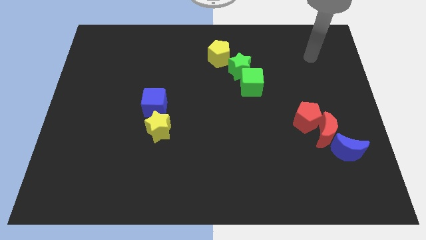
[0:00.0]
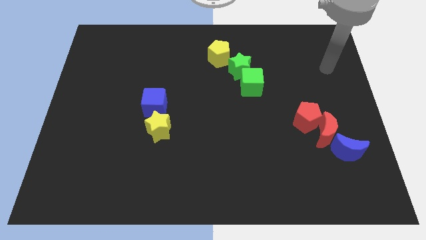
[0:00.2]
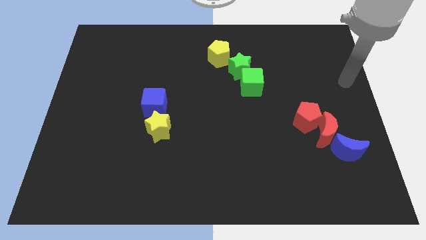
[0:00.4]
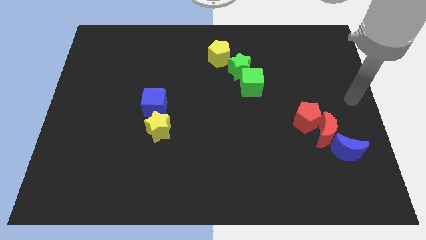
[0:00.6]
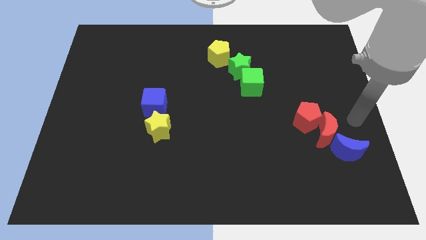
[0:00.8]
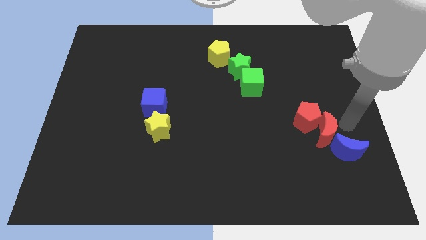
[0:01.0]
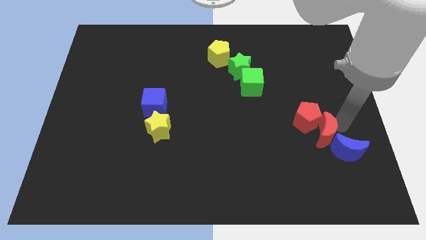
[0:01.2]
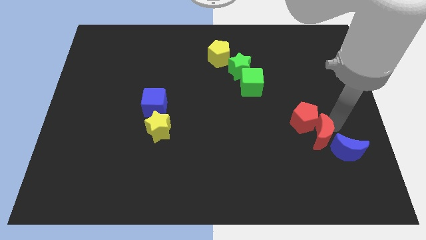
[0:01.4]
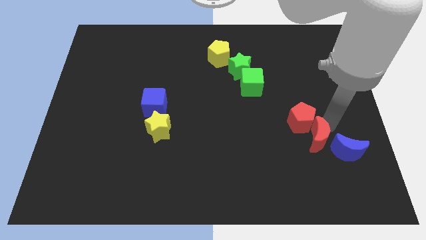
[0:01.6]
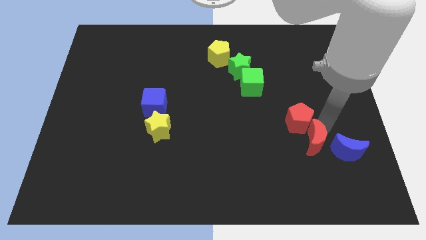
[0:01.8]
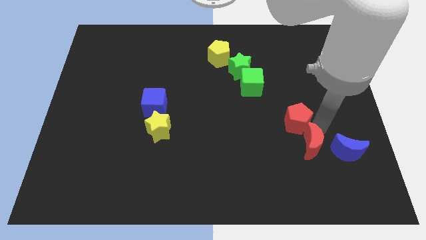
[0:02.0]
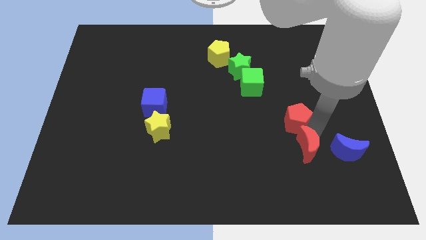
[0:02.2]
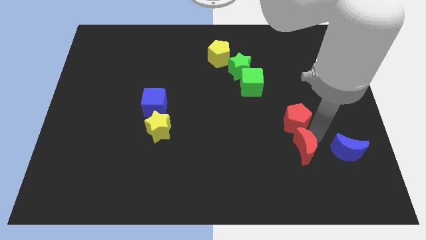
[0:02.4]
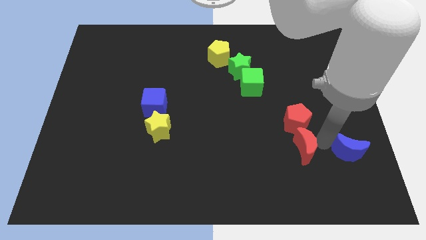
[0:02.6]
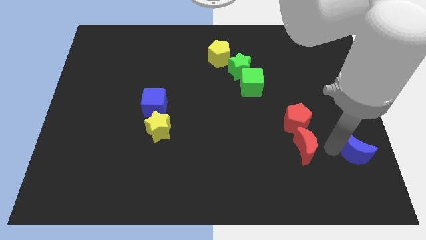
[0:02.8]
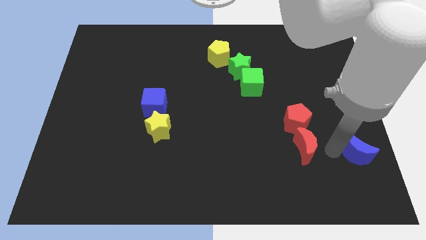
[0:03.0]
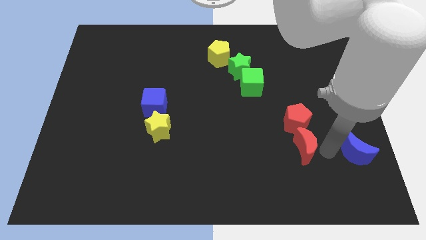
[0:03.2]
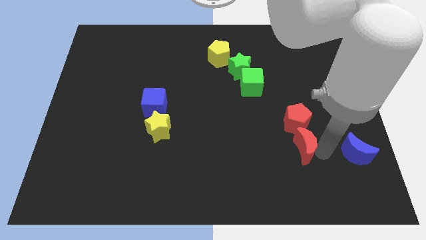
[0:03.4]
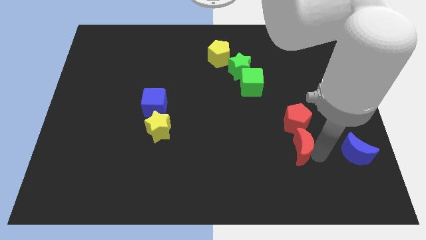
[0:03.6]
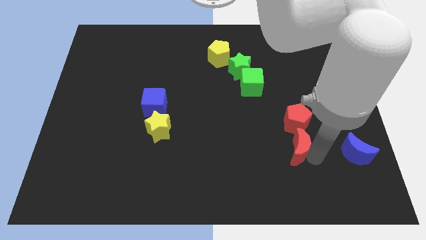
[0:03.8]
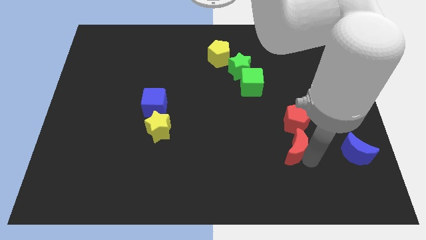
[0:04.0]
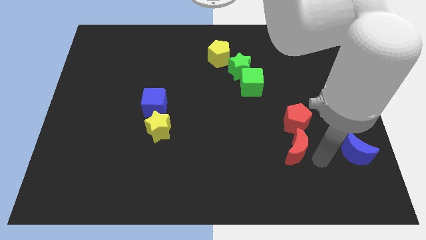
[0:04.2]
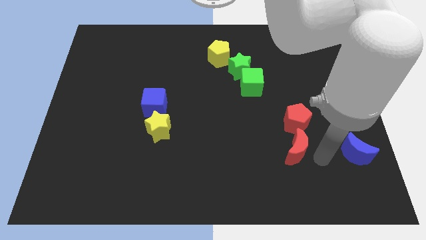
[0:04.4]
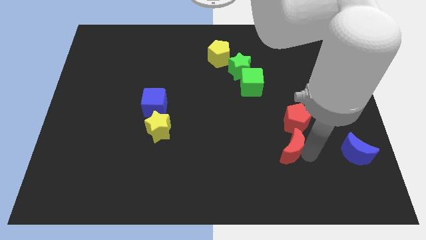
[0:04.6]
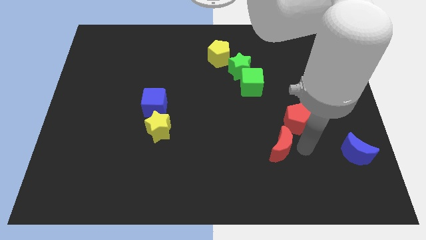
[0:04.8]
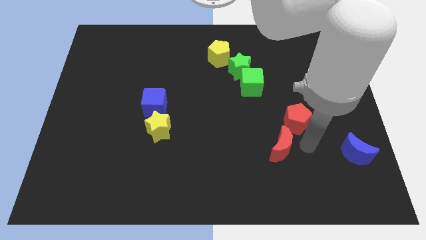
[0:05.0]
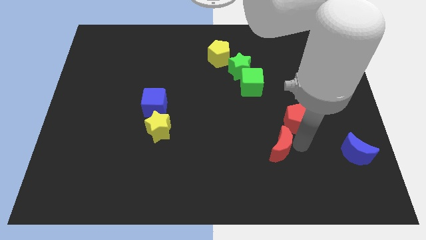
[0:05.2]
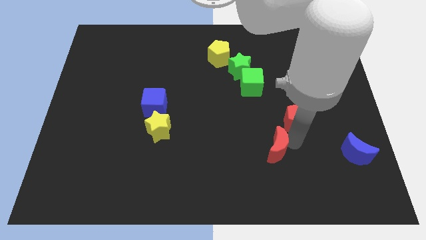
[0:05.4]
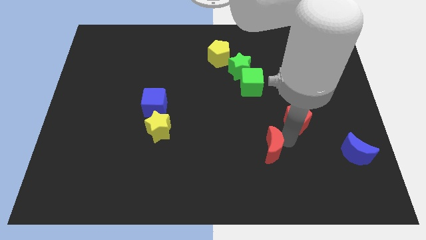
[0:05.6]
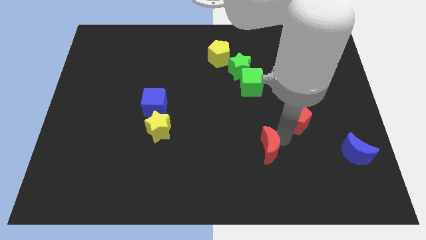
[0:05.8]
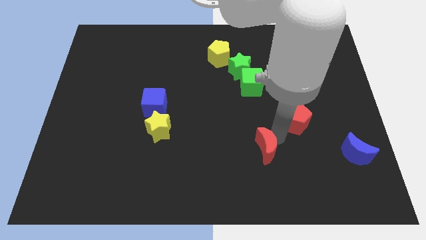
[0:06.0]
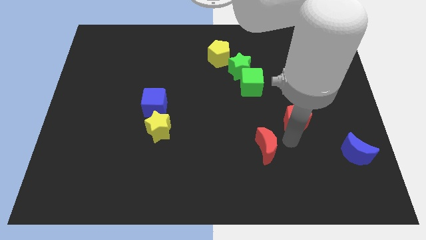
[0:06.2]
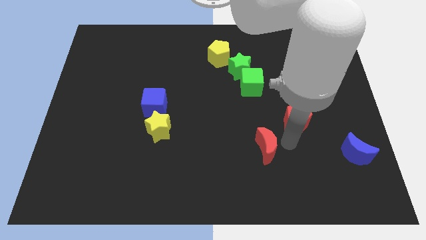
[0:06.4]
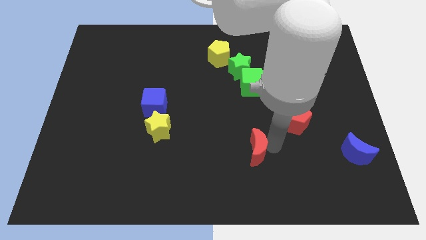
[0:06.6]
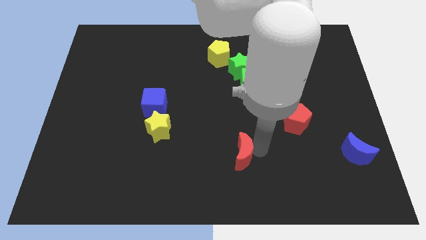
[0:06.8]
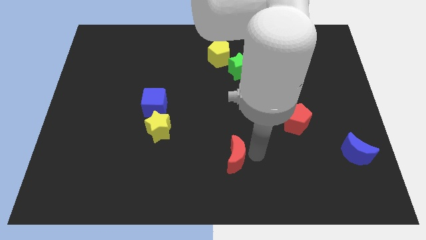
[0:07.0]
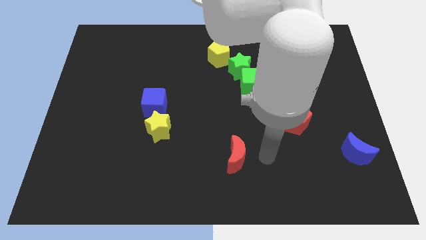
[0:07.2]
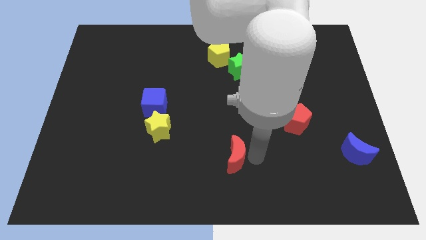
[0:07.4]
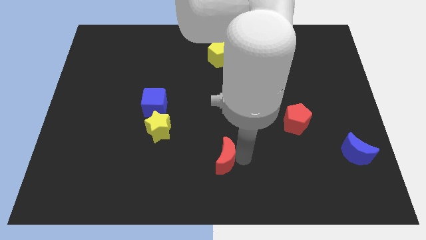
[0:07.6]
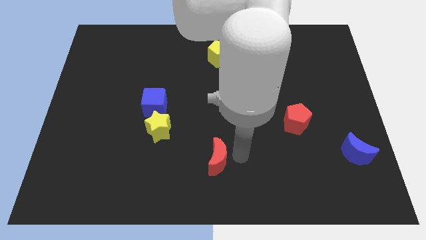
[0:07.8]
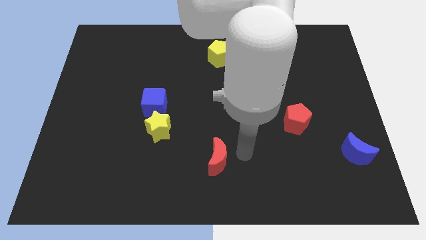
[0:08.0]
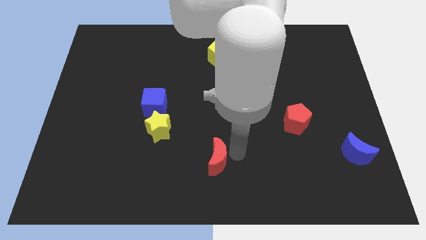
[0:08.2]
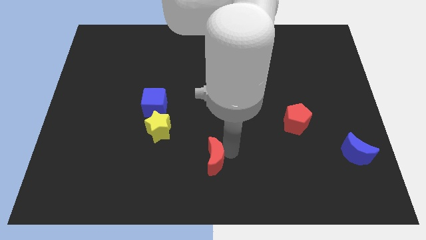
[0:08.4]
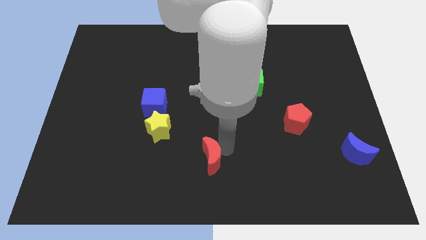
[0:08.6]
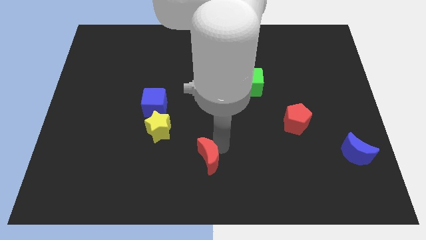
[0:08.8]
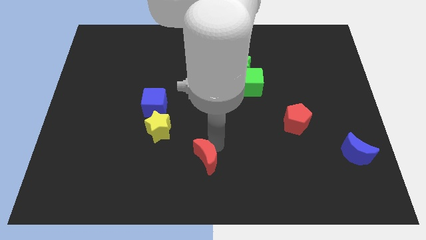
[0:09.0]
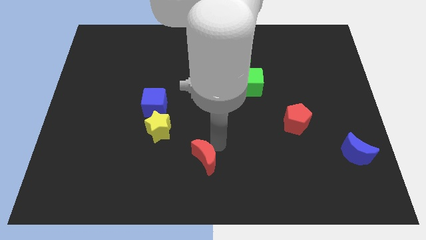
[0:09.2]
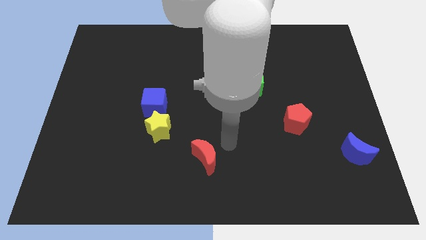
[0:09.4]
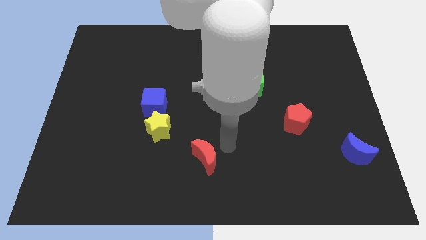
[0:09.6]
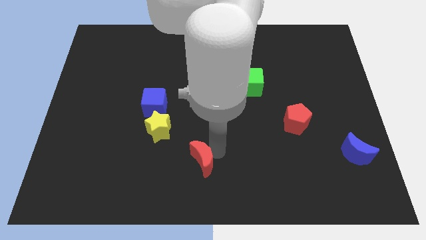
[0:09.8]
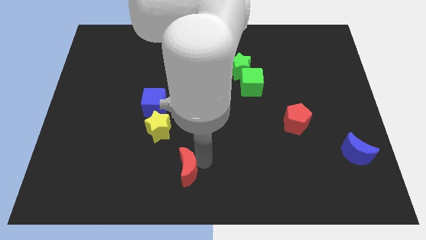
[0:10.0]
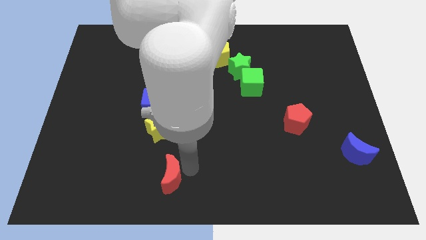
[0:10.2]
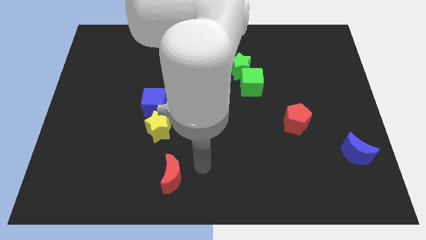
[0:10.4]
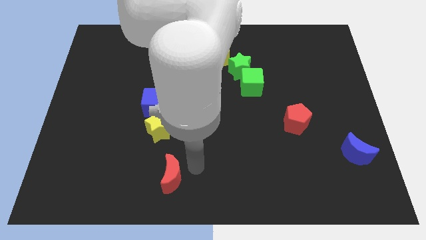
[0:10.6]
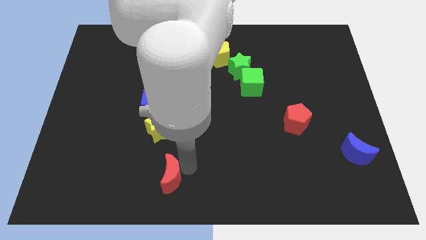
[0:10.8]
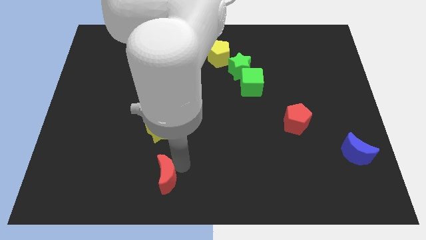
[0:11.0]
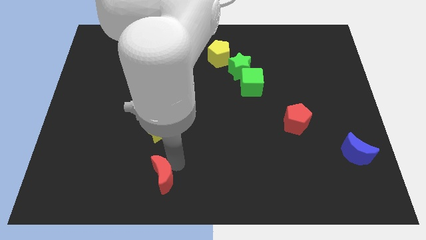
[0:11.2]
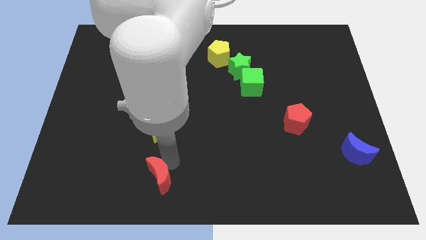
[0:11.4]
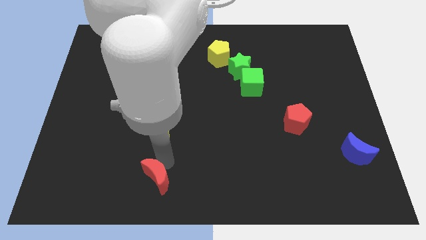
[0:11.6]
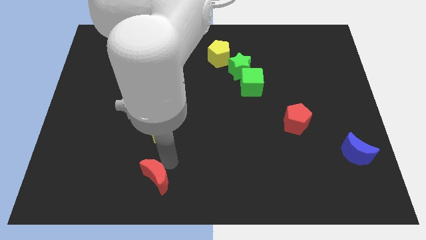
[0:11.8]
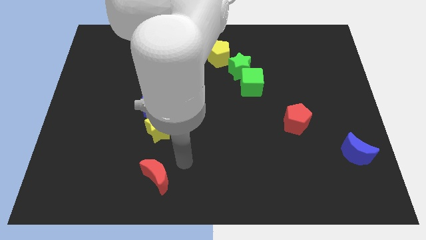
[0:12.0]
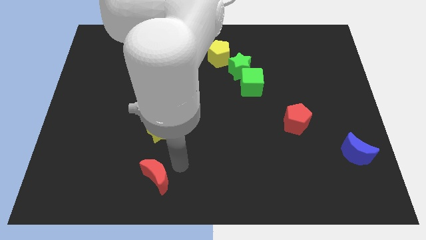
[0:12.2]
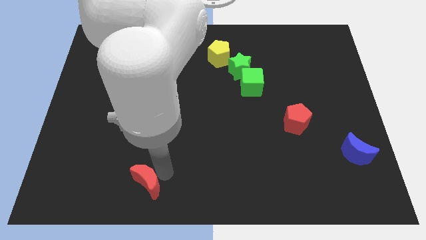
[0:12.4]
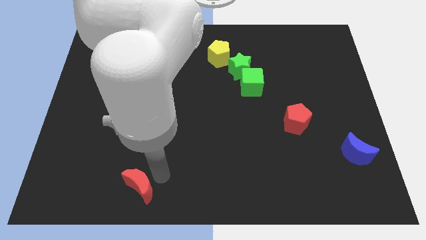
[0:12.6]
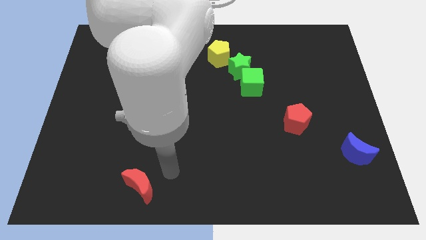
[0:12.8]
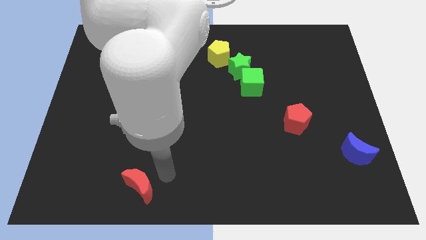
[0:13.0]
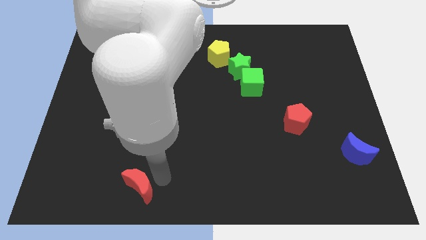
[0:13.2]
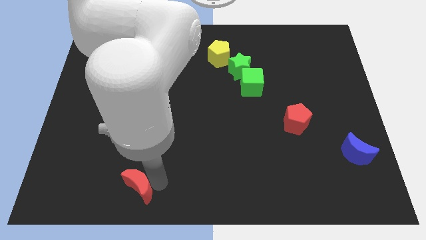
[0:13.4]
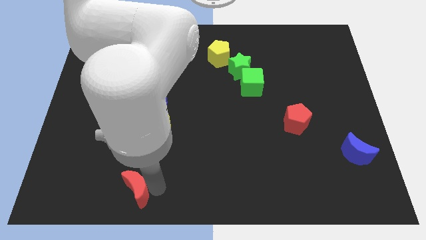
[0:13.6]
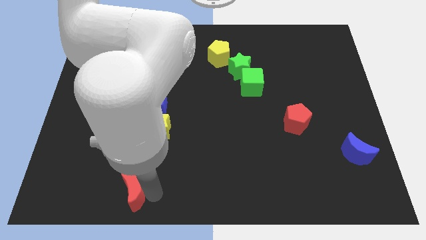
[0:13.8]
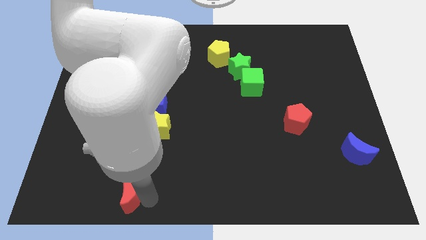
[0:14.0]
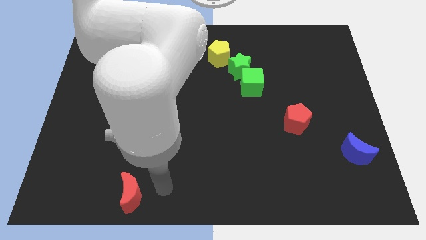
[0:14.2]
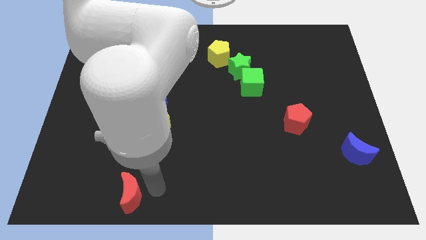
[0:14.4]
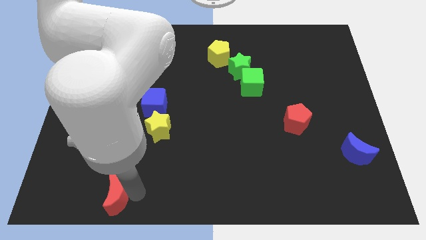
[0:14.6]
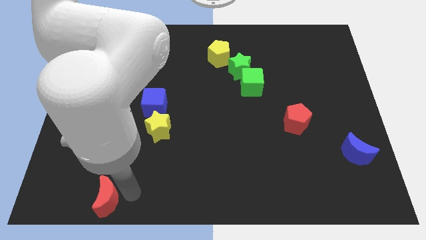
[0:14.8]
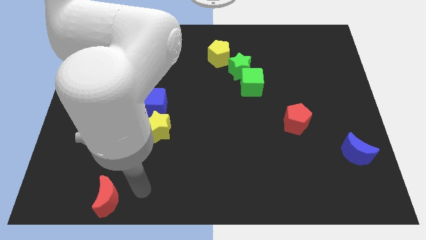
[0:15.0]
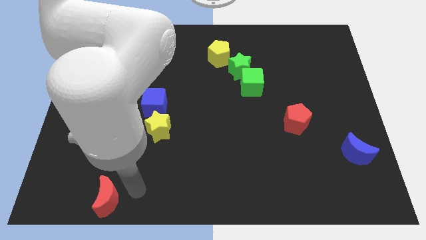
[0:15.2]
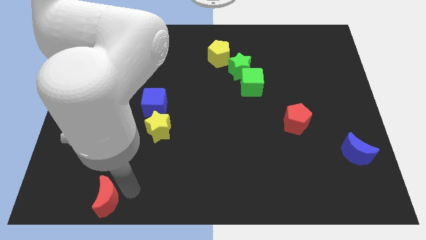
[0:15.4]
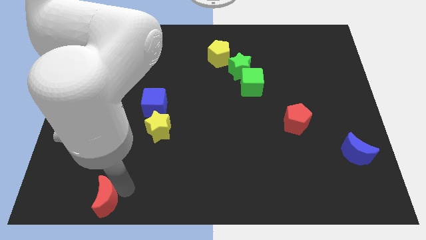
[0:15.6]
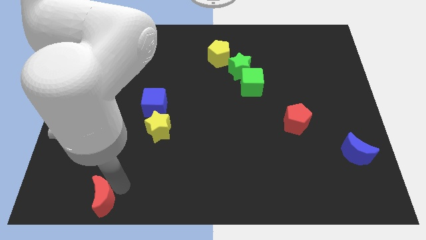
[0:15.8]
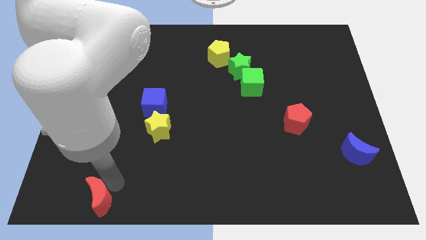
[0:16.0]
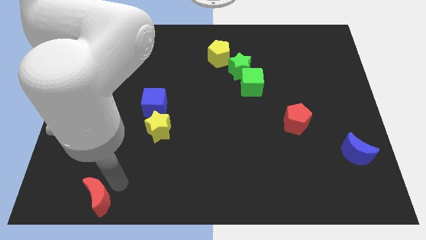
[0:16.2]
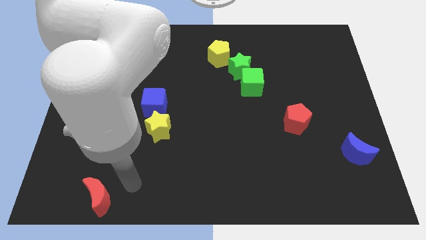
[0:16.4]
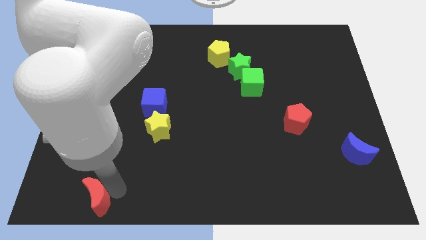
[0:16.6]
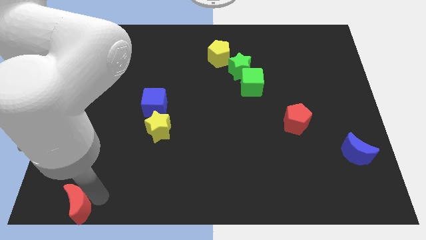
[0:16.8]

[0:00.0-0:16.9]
move the red moon to the bottom left of the board
